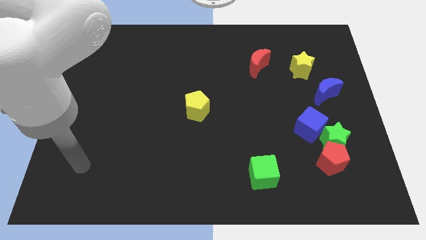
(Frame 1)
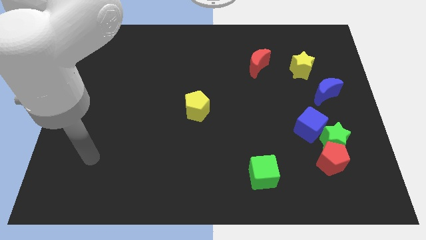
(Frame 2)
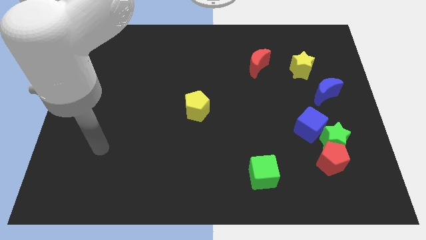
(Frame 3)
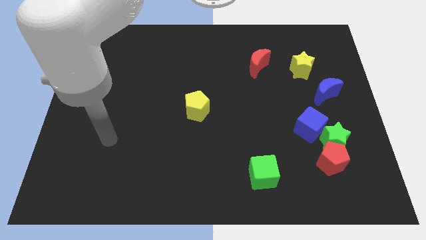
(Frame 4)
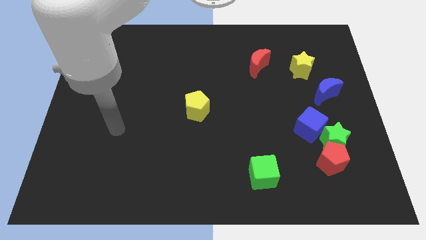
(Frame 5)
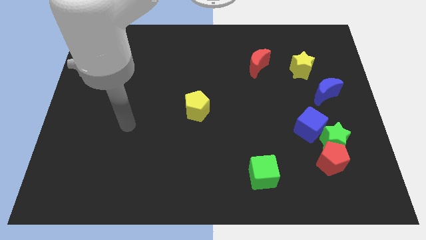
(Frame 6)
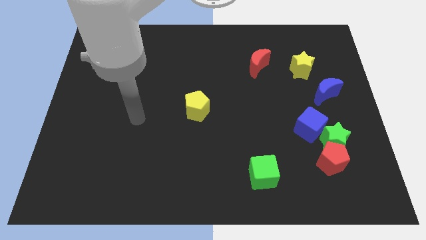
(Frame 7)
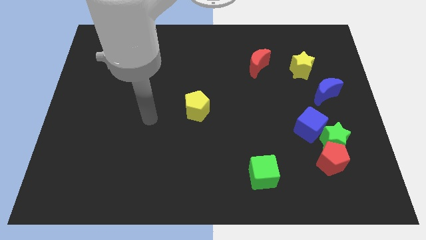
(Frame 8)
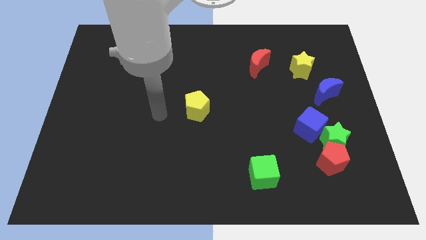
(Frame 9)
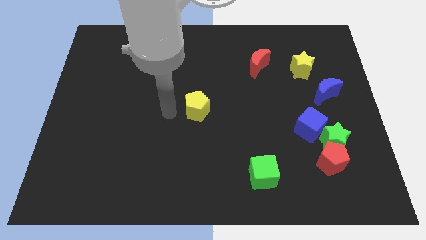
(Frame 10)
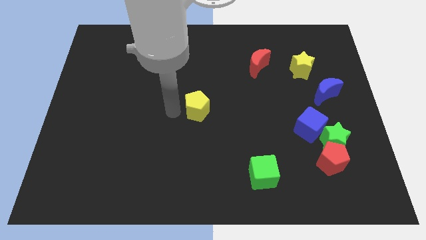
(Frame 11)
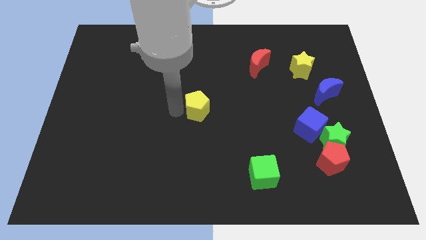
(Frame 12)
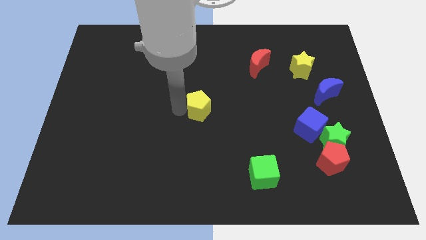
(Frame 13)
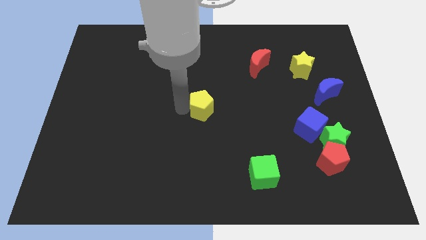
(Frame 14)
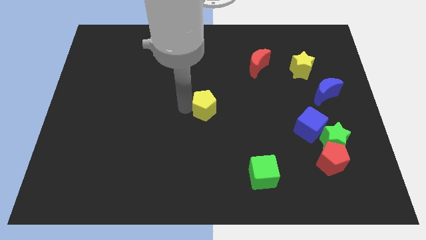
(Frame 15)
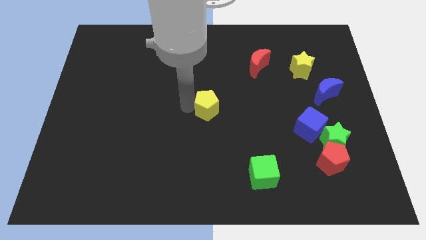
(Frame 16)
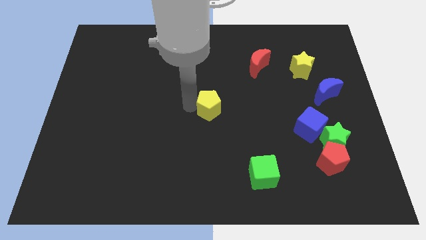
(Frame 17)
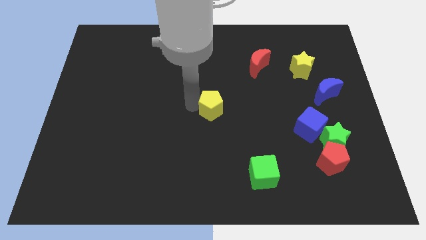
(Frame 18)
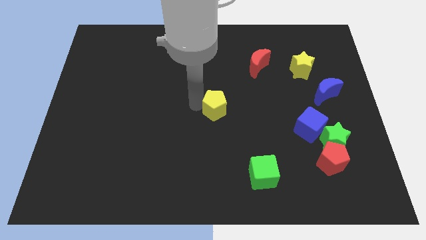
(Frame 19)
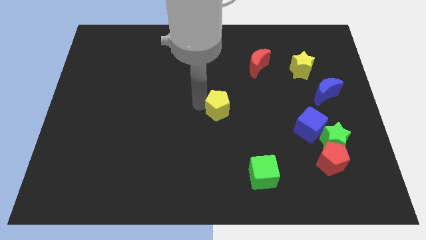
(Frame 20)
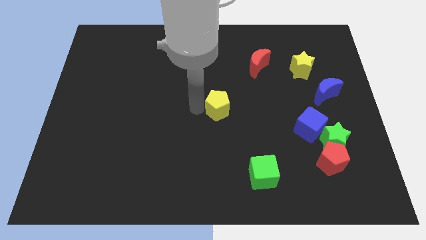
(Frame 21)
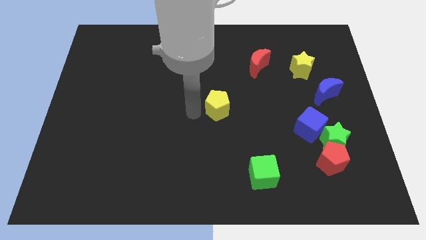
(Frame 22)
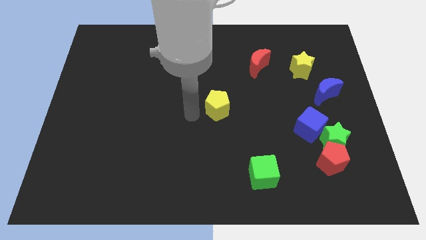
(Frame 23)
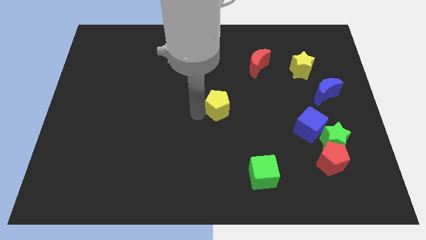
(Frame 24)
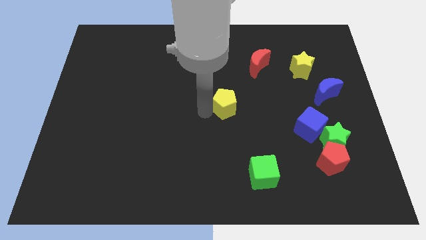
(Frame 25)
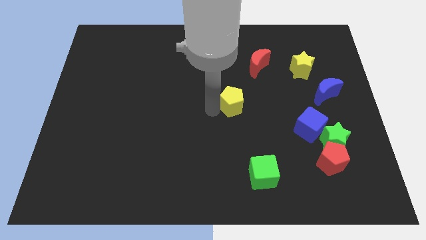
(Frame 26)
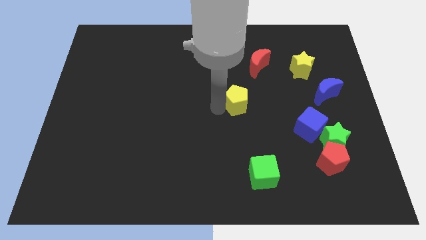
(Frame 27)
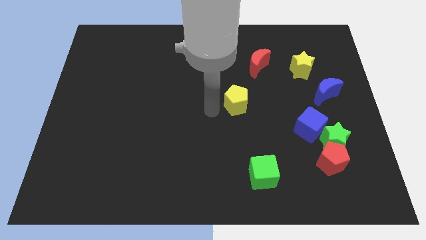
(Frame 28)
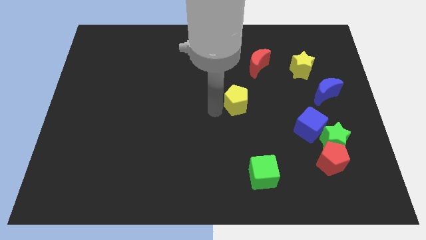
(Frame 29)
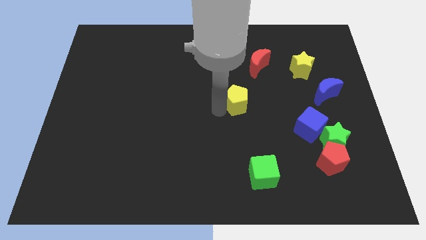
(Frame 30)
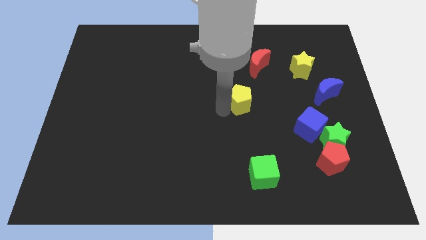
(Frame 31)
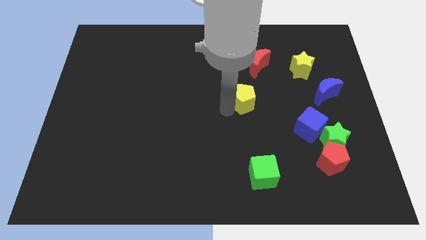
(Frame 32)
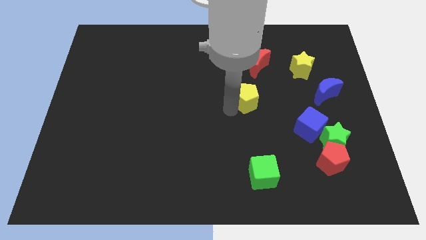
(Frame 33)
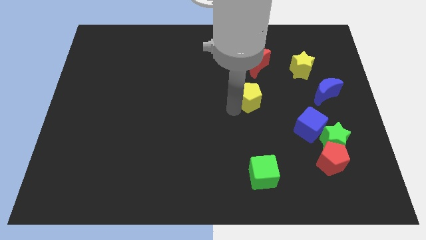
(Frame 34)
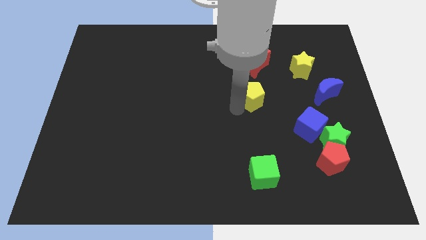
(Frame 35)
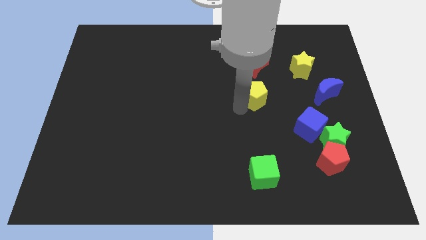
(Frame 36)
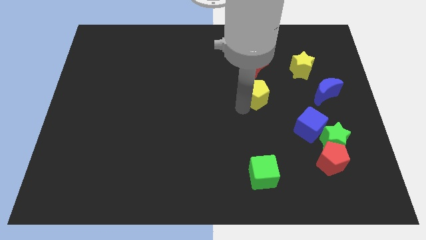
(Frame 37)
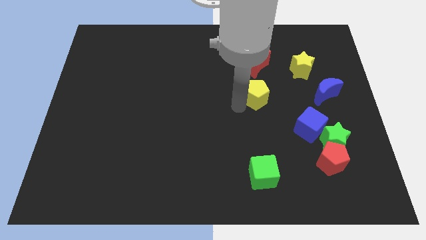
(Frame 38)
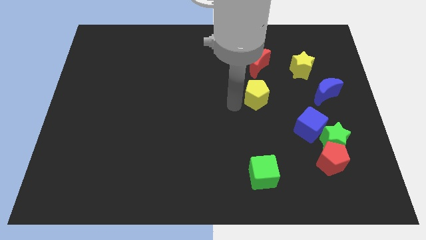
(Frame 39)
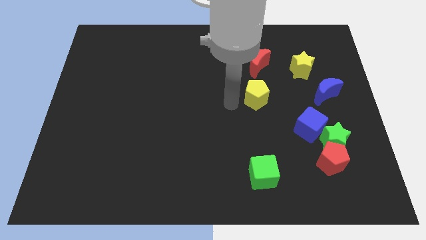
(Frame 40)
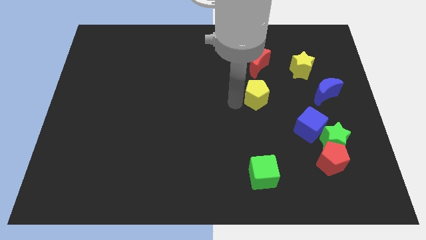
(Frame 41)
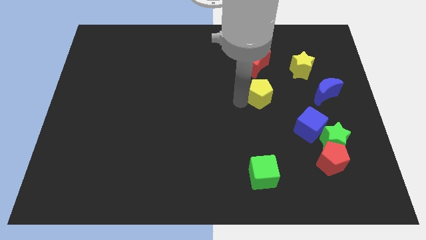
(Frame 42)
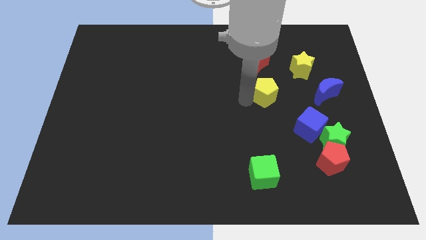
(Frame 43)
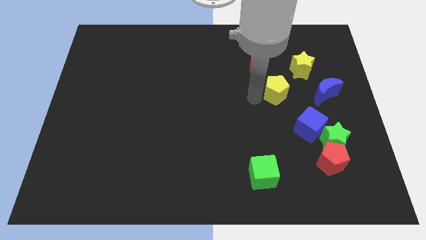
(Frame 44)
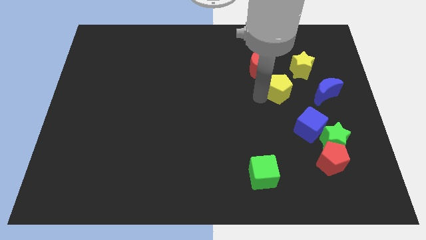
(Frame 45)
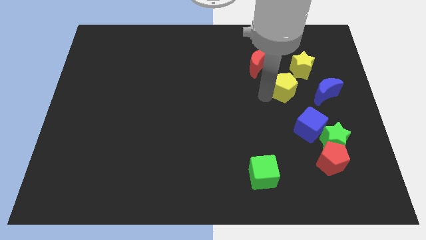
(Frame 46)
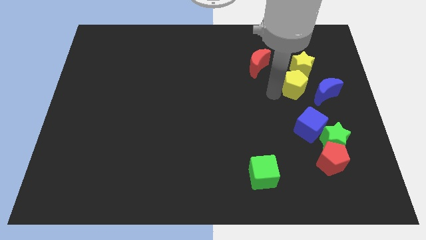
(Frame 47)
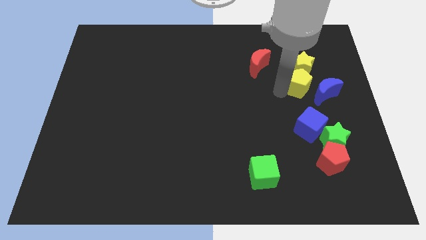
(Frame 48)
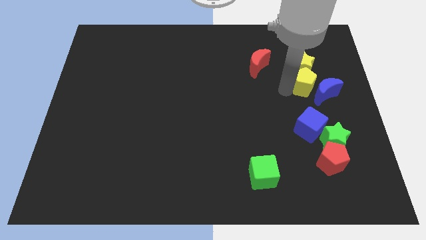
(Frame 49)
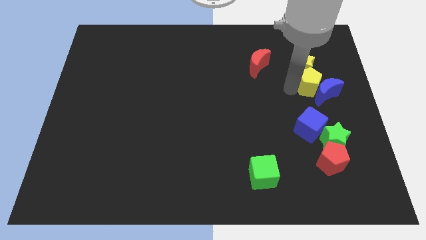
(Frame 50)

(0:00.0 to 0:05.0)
slide the yellow pentagon to the top side of the blue moon

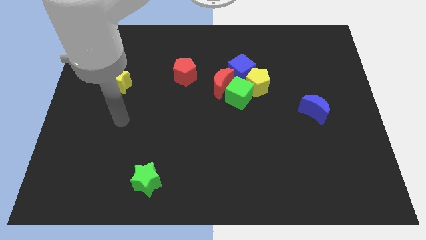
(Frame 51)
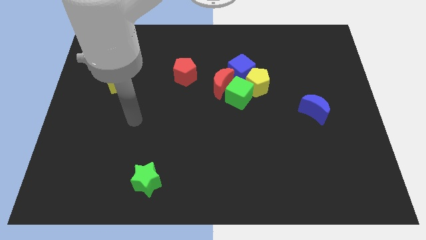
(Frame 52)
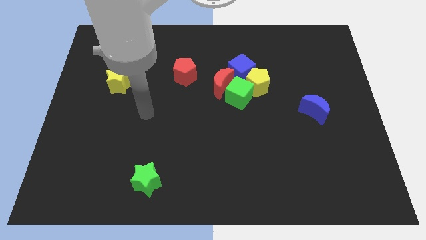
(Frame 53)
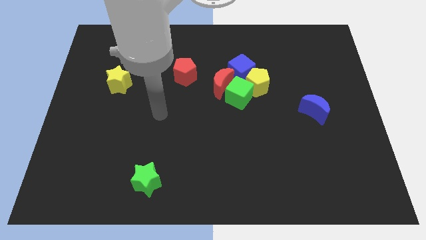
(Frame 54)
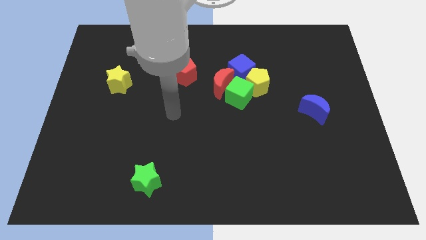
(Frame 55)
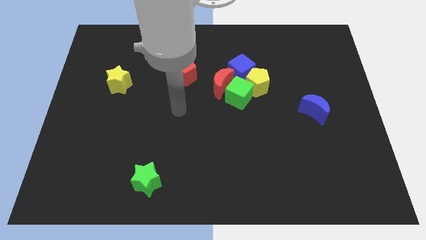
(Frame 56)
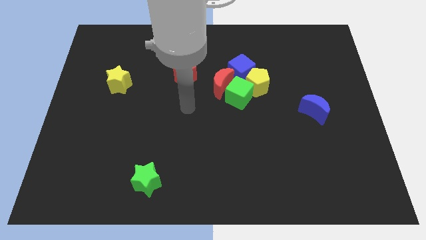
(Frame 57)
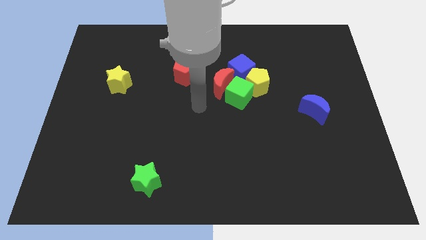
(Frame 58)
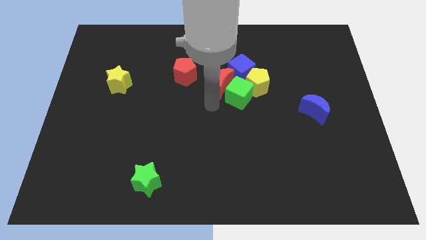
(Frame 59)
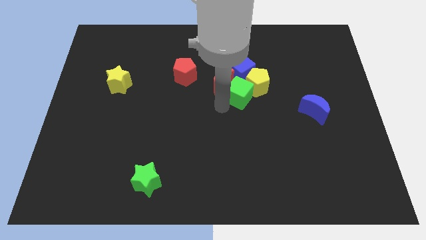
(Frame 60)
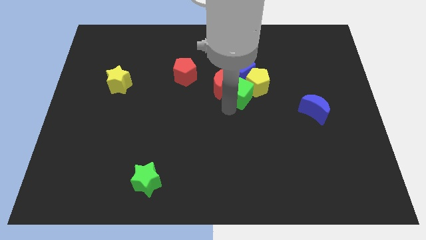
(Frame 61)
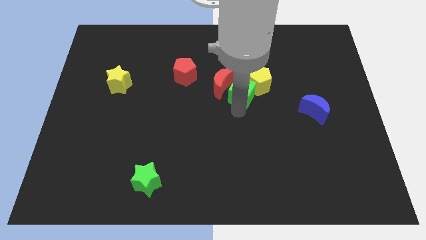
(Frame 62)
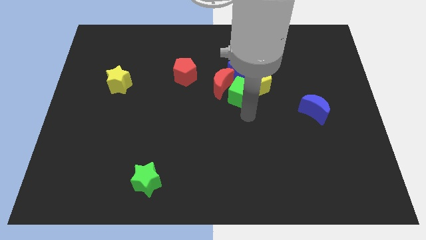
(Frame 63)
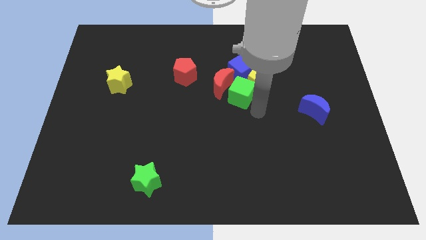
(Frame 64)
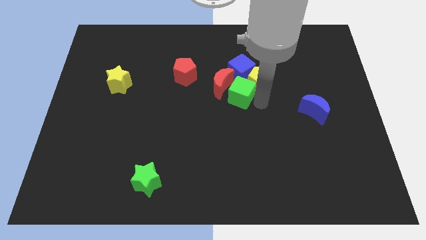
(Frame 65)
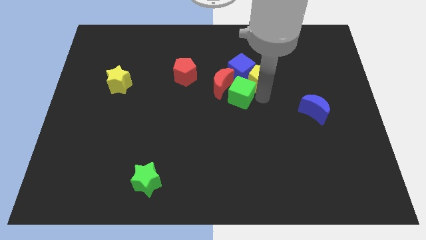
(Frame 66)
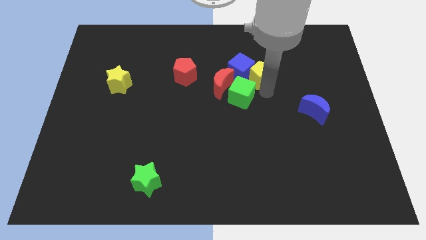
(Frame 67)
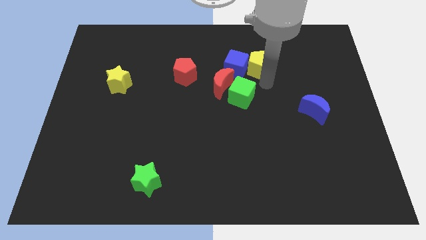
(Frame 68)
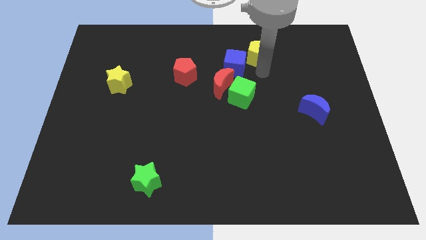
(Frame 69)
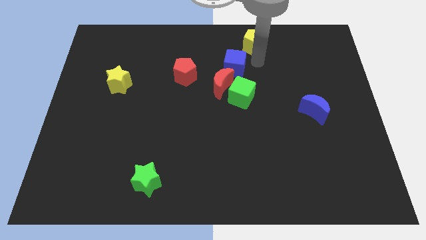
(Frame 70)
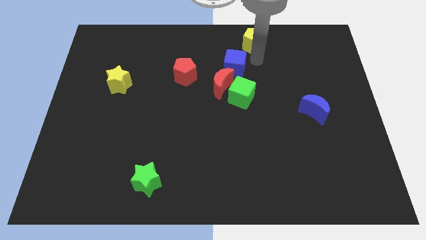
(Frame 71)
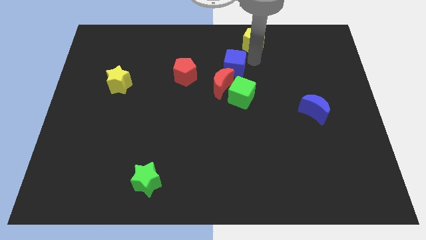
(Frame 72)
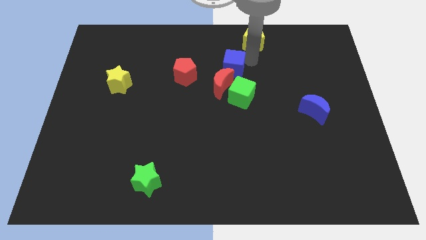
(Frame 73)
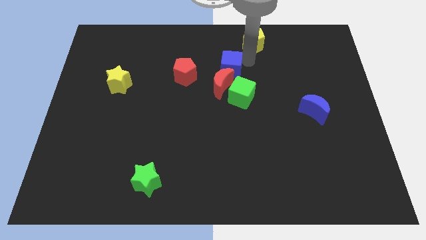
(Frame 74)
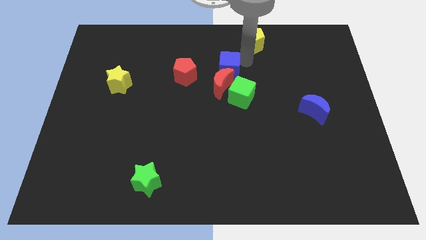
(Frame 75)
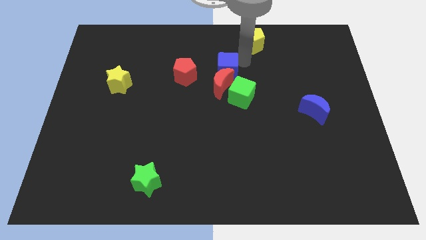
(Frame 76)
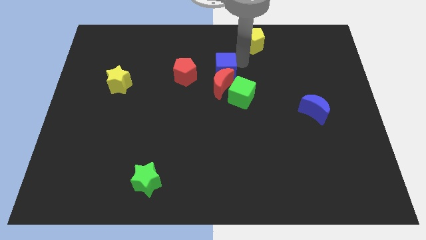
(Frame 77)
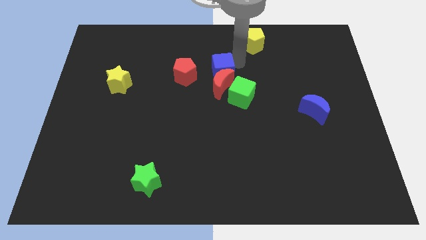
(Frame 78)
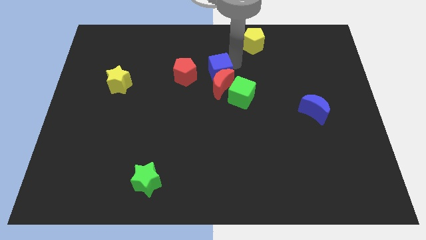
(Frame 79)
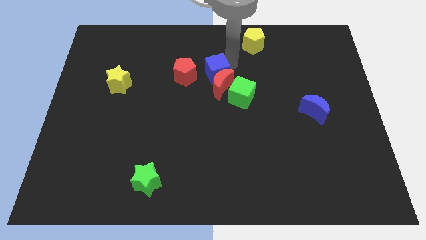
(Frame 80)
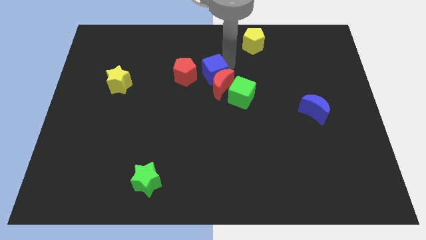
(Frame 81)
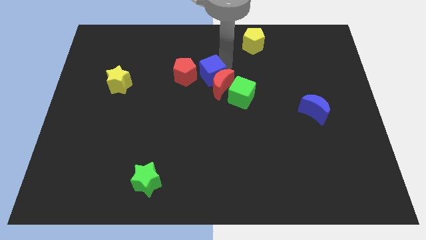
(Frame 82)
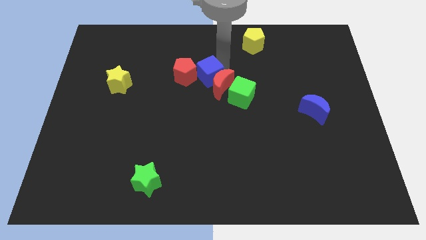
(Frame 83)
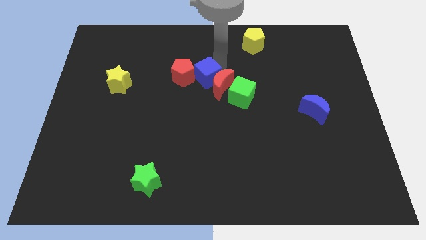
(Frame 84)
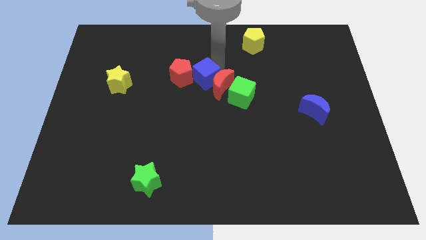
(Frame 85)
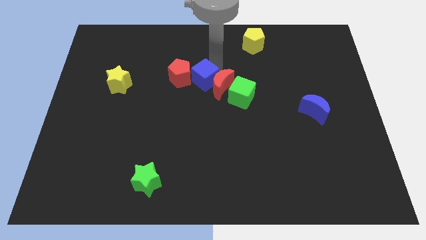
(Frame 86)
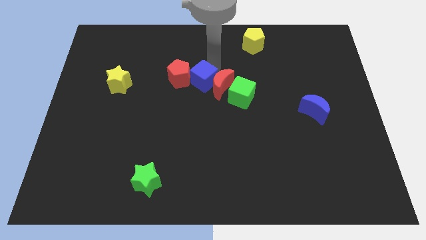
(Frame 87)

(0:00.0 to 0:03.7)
put the blue cube to the bottom left of the red moon
